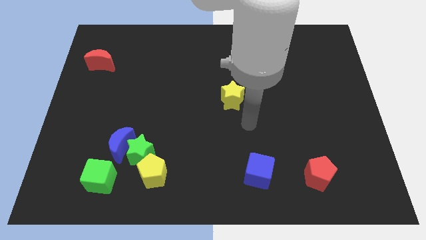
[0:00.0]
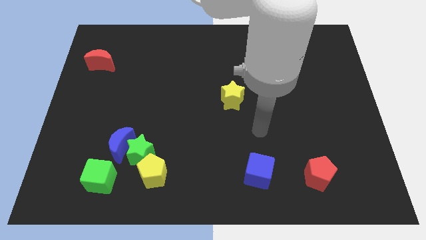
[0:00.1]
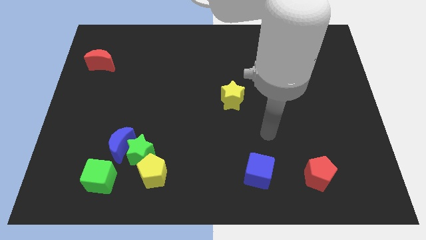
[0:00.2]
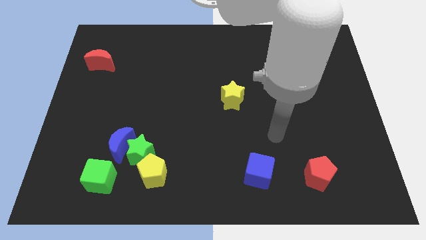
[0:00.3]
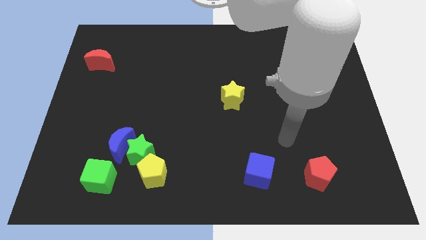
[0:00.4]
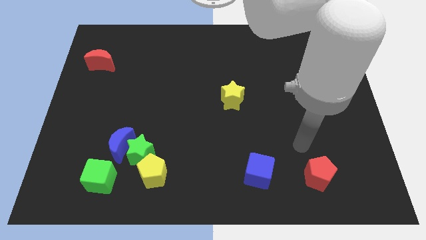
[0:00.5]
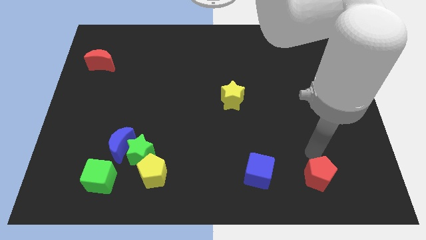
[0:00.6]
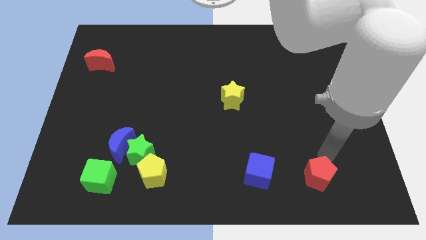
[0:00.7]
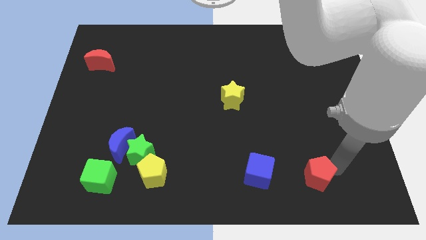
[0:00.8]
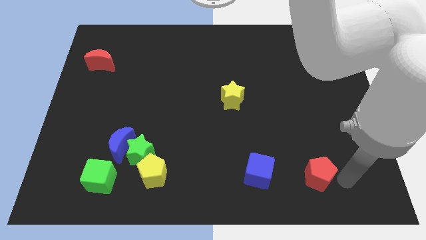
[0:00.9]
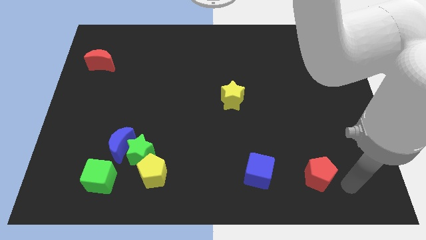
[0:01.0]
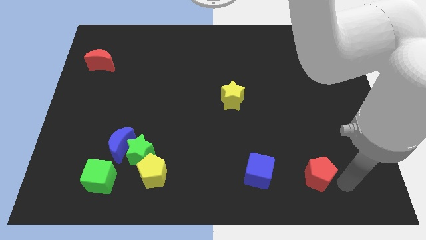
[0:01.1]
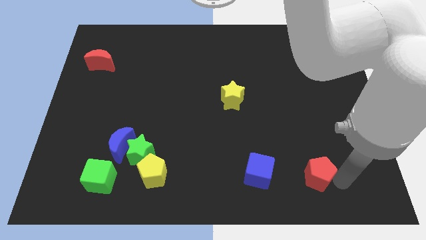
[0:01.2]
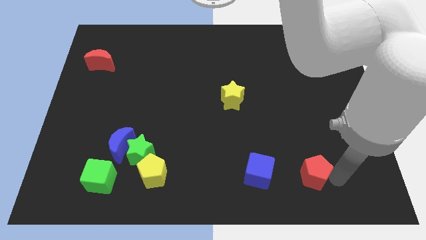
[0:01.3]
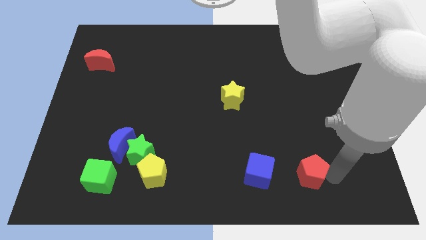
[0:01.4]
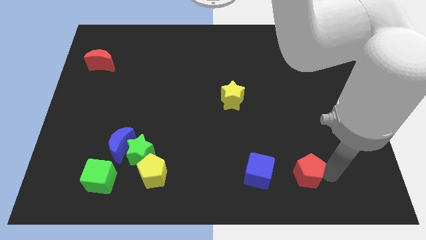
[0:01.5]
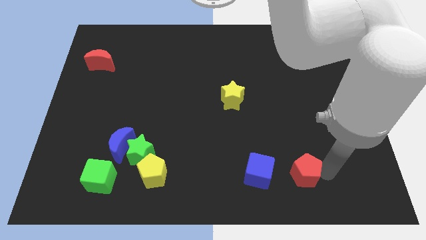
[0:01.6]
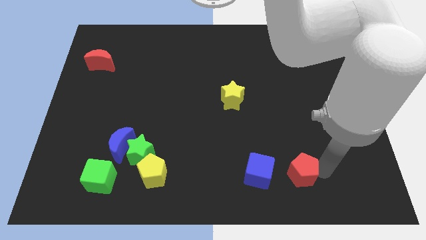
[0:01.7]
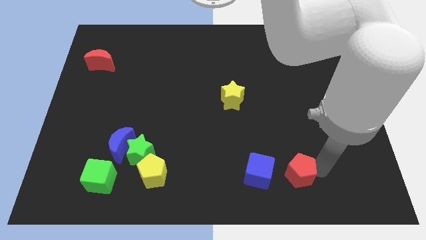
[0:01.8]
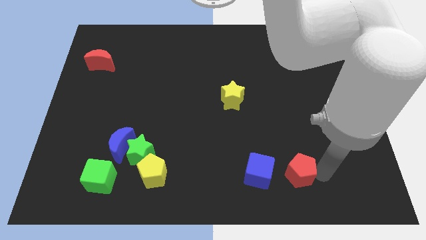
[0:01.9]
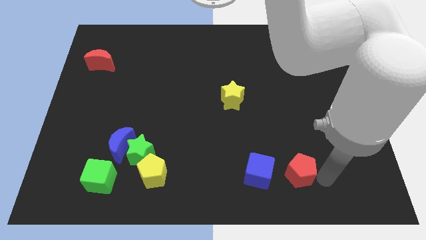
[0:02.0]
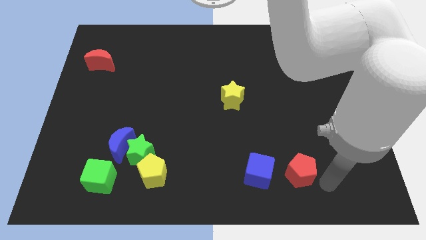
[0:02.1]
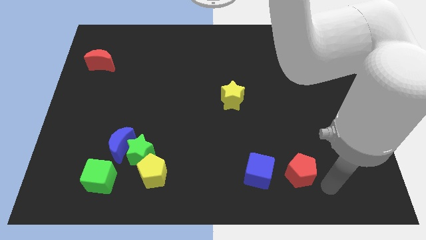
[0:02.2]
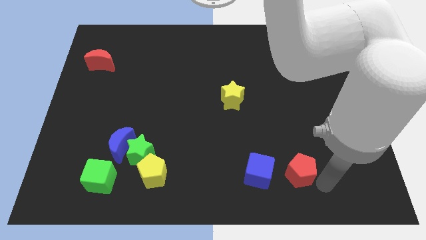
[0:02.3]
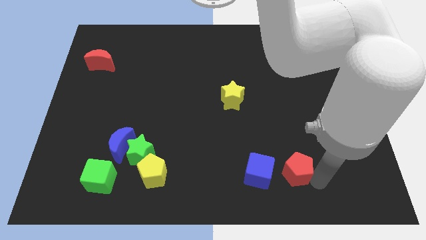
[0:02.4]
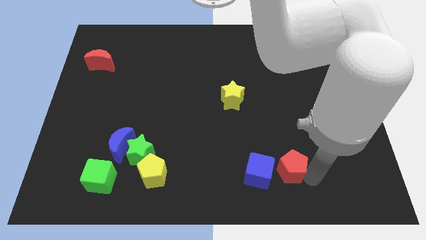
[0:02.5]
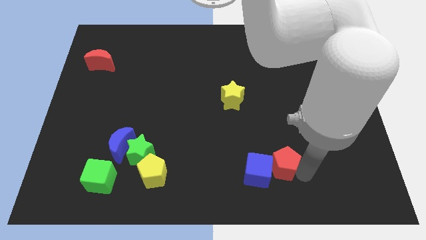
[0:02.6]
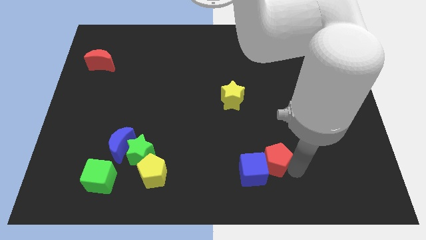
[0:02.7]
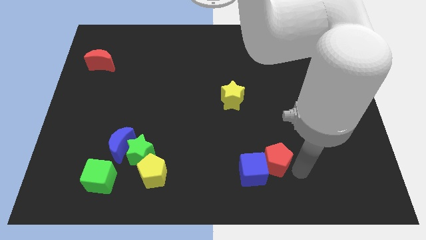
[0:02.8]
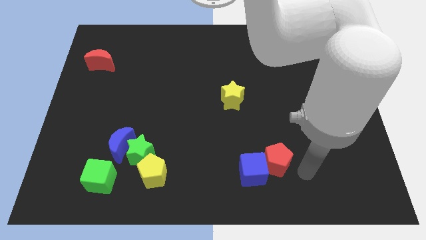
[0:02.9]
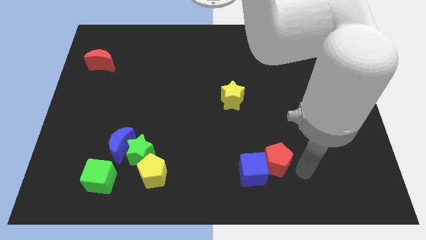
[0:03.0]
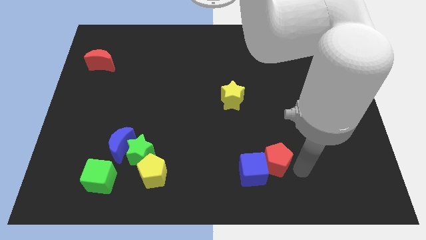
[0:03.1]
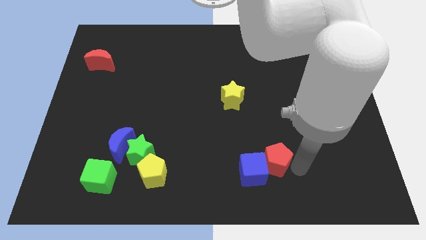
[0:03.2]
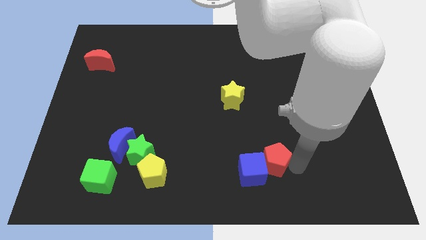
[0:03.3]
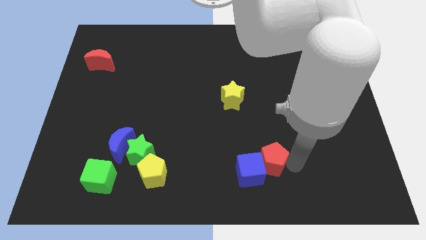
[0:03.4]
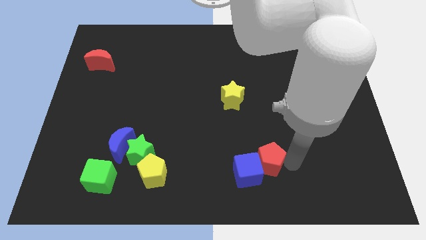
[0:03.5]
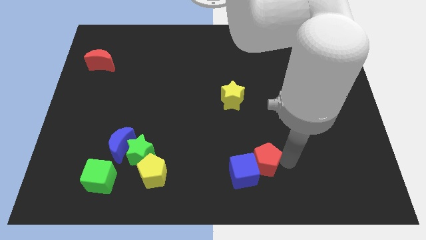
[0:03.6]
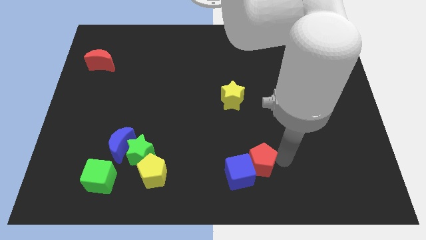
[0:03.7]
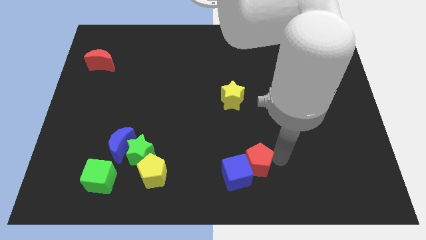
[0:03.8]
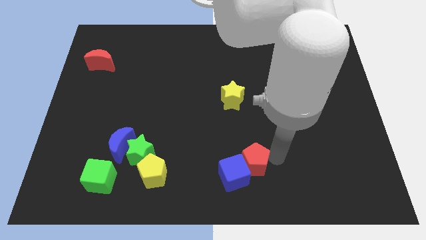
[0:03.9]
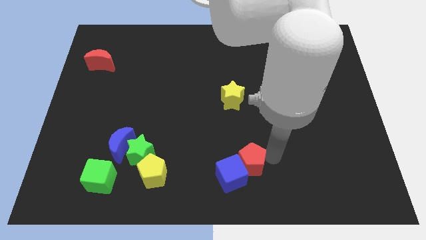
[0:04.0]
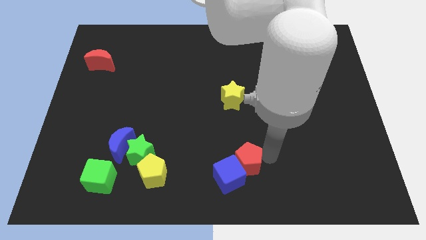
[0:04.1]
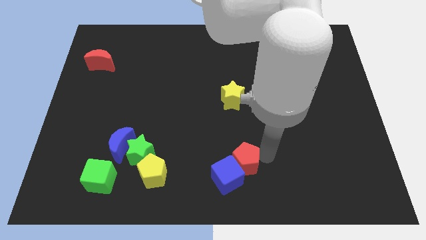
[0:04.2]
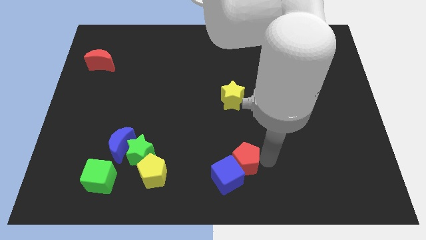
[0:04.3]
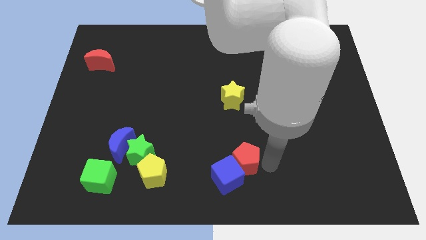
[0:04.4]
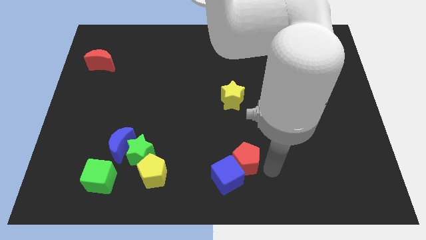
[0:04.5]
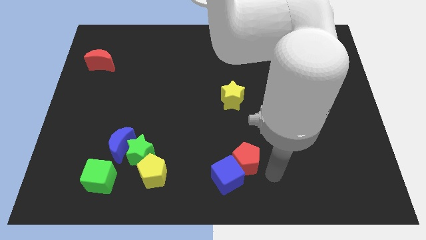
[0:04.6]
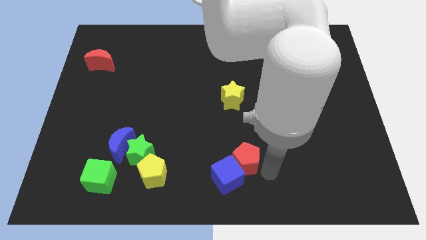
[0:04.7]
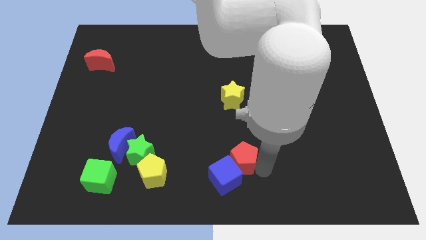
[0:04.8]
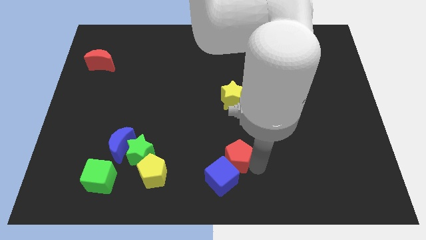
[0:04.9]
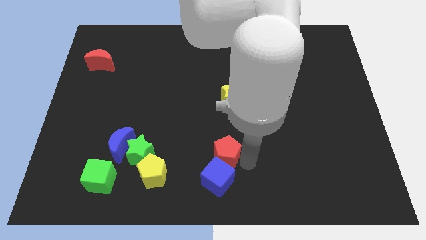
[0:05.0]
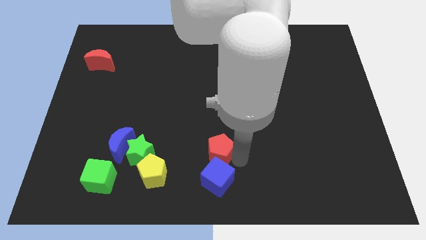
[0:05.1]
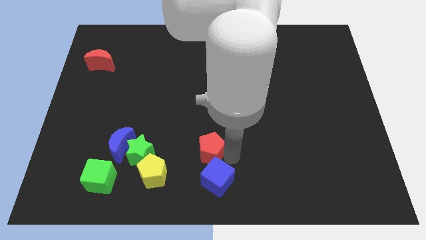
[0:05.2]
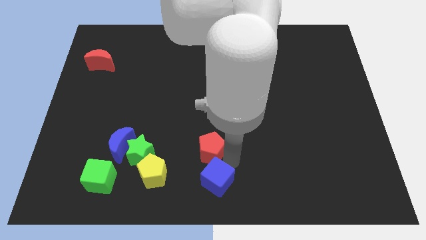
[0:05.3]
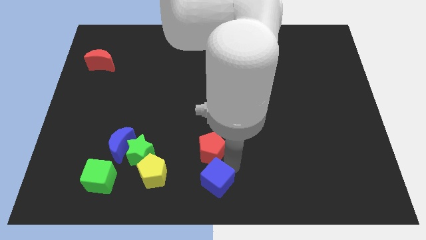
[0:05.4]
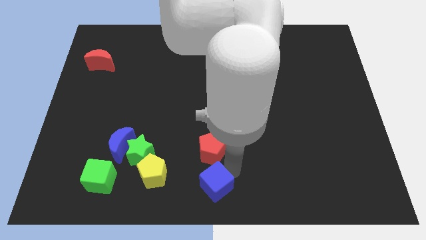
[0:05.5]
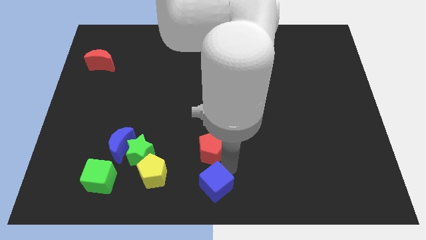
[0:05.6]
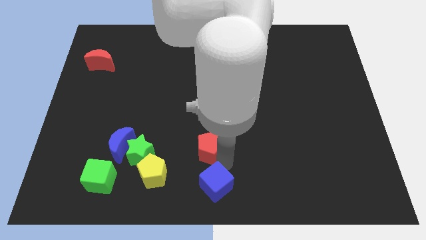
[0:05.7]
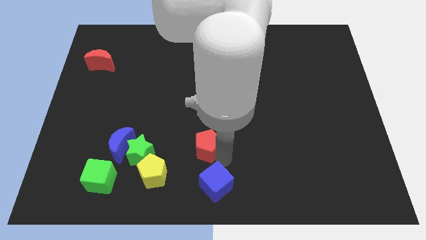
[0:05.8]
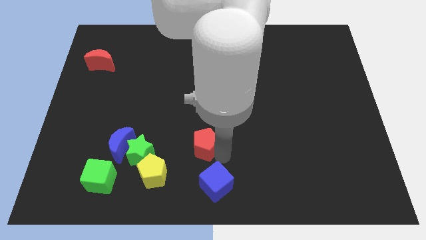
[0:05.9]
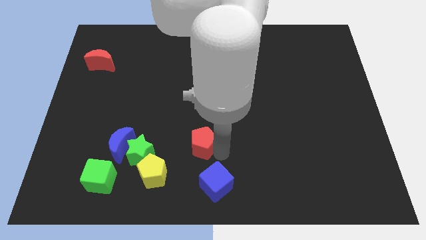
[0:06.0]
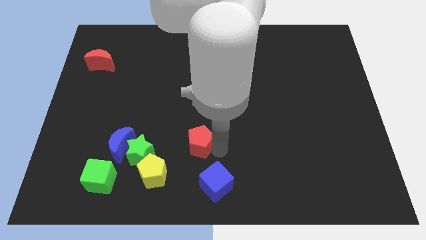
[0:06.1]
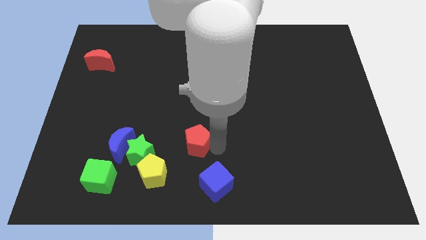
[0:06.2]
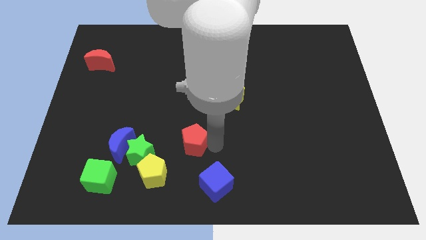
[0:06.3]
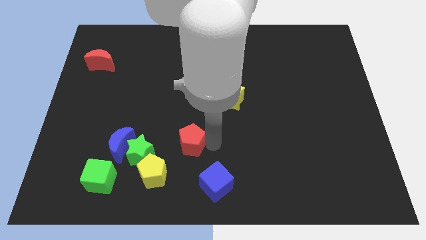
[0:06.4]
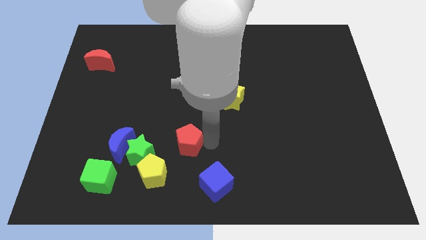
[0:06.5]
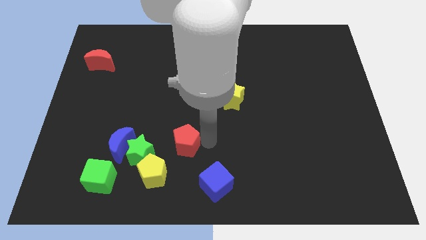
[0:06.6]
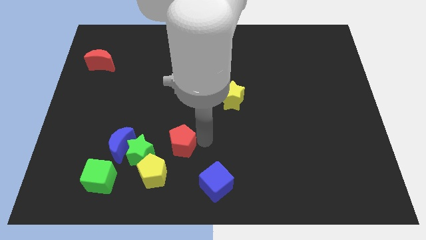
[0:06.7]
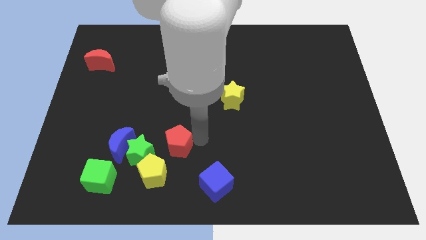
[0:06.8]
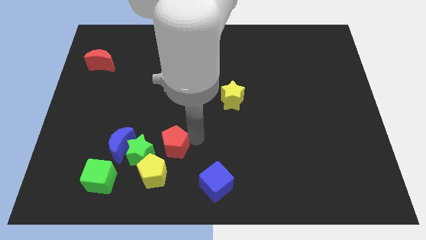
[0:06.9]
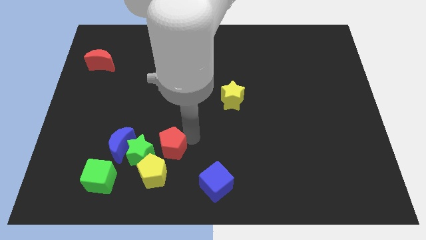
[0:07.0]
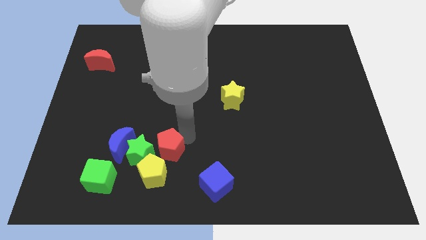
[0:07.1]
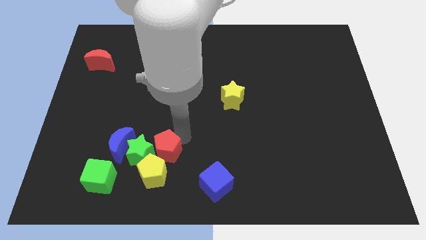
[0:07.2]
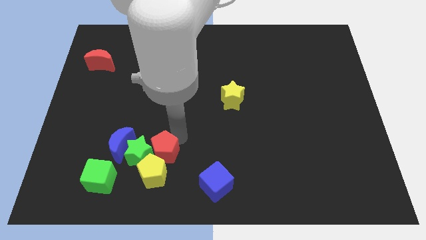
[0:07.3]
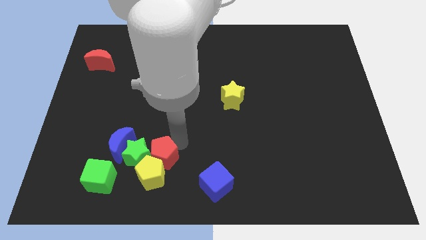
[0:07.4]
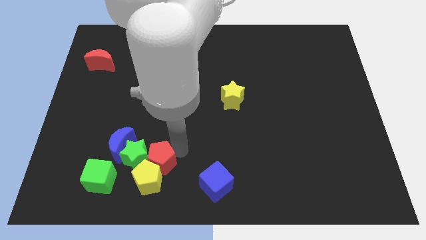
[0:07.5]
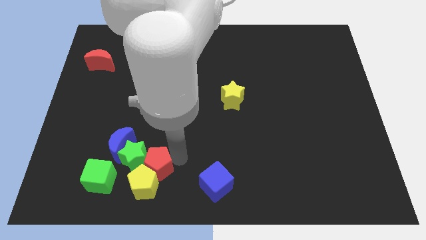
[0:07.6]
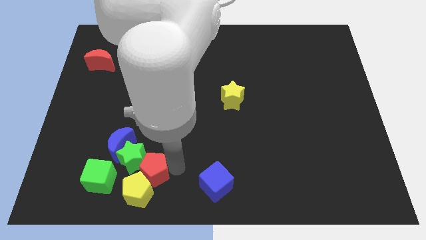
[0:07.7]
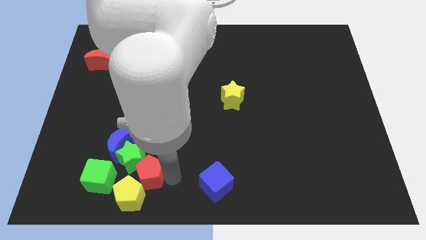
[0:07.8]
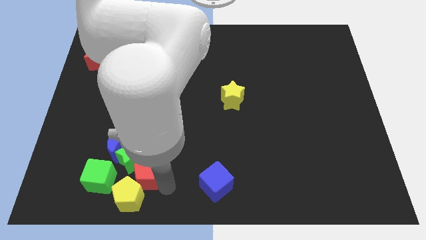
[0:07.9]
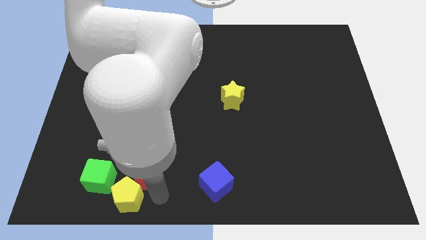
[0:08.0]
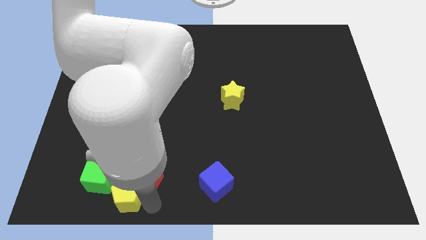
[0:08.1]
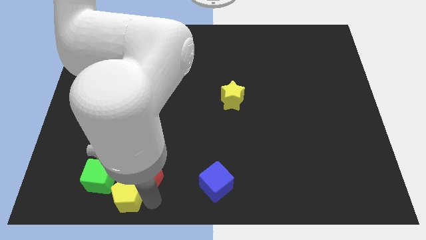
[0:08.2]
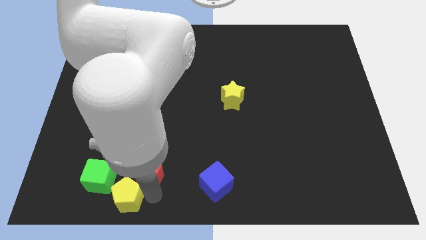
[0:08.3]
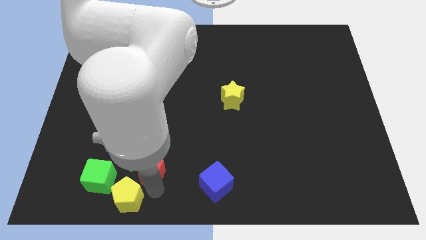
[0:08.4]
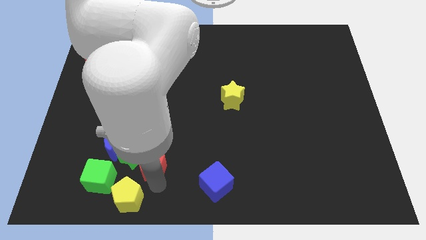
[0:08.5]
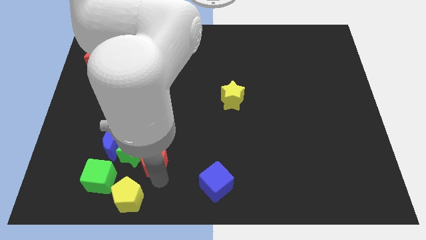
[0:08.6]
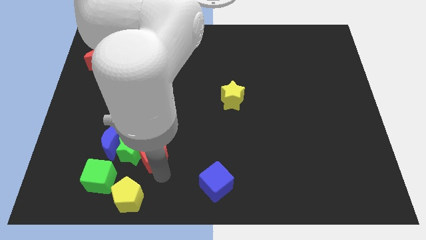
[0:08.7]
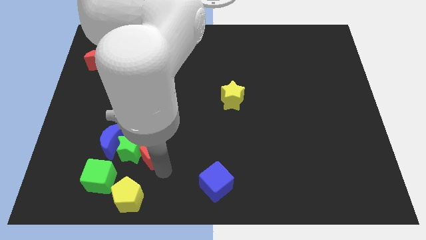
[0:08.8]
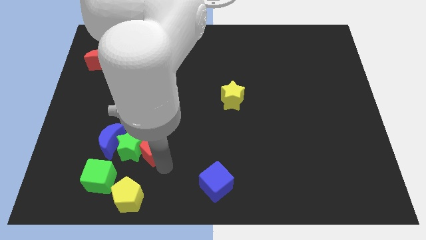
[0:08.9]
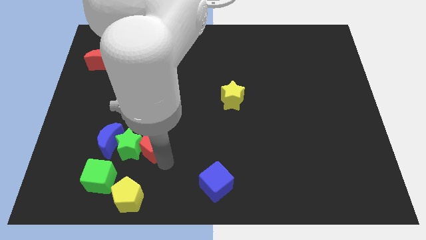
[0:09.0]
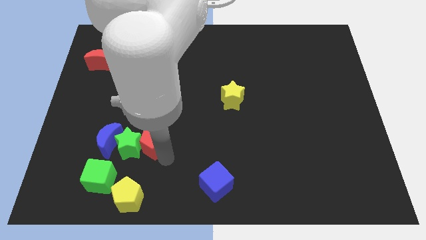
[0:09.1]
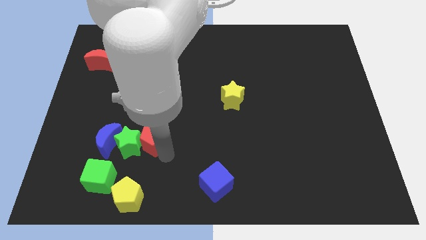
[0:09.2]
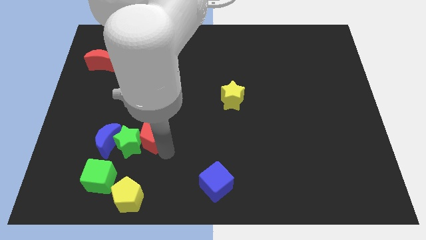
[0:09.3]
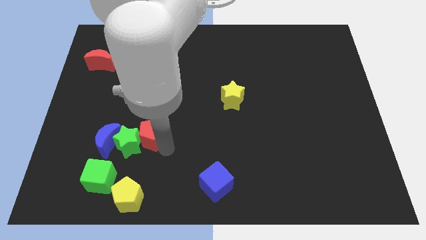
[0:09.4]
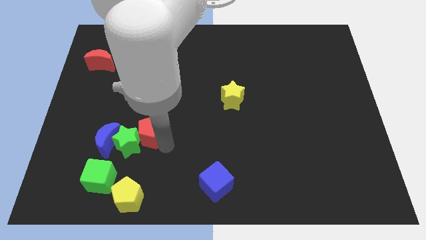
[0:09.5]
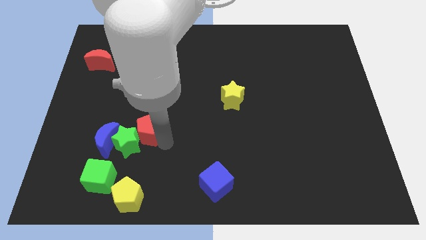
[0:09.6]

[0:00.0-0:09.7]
push the red pentagon to the top right of the blue moon
